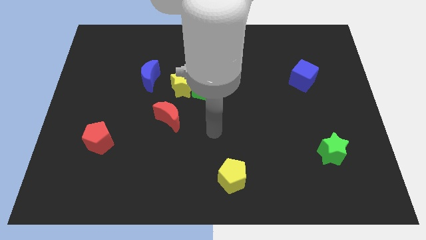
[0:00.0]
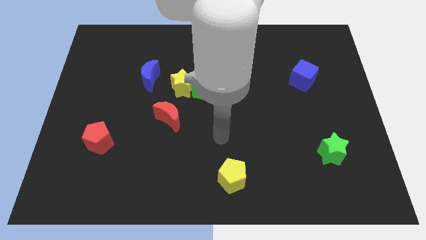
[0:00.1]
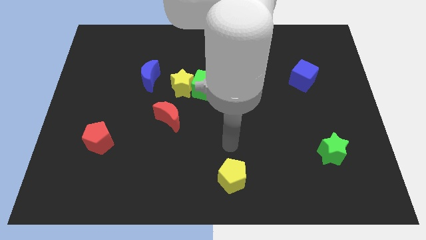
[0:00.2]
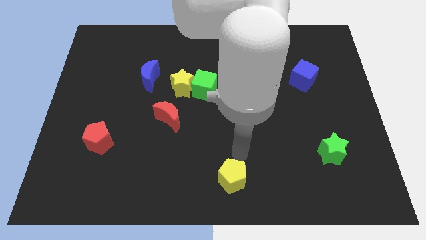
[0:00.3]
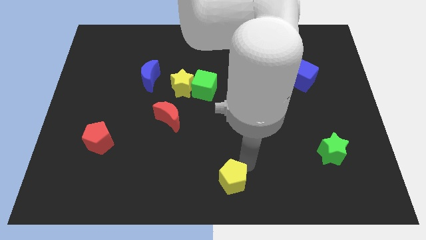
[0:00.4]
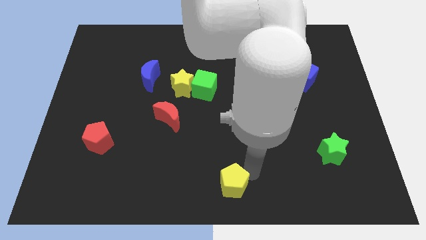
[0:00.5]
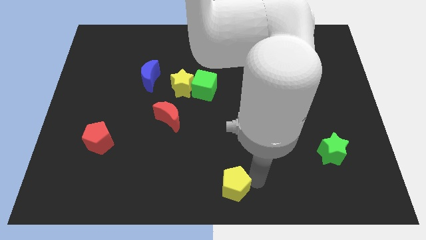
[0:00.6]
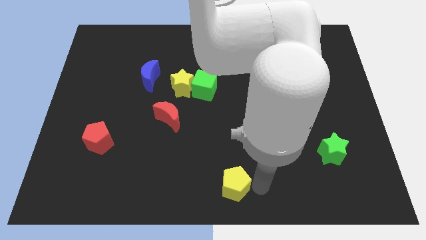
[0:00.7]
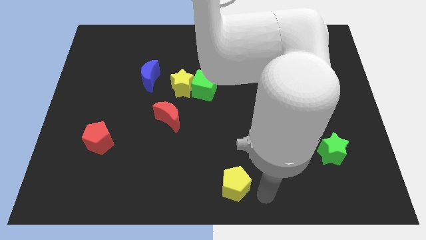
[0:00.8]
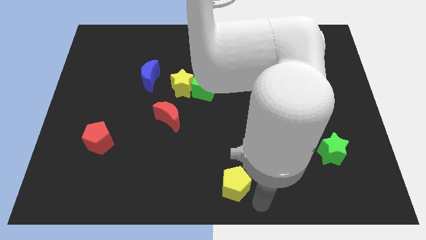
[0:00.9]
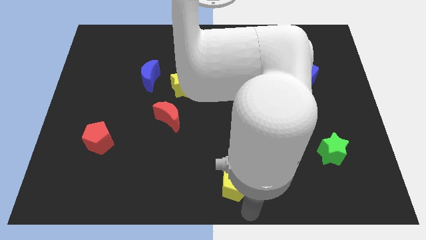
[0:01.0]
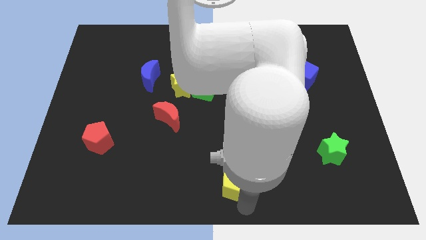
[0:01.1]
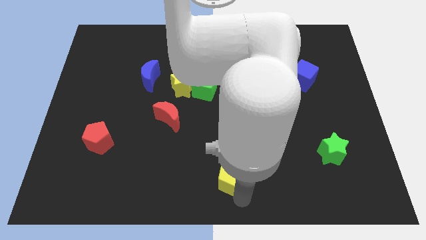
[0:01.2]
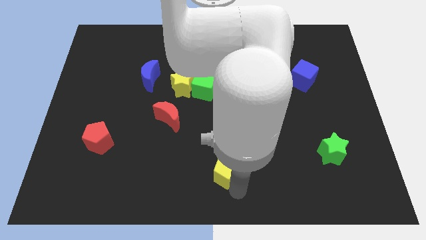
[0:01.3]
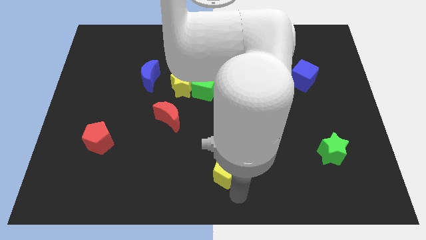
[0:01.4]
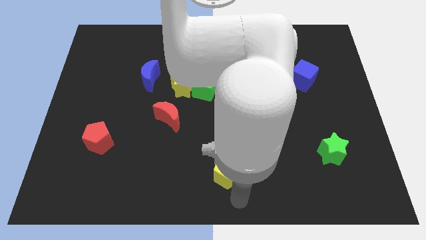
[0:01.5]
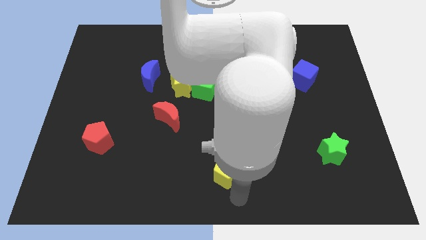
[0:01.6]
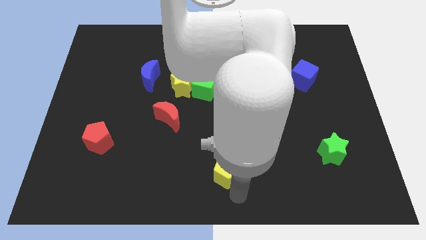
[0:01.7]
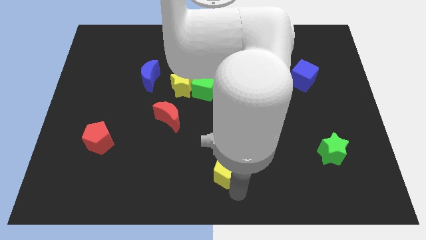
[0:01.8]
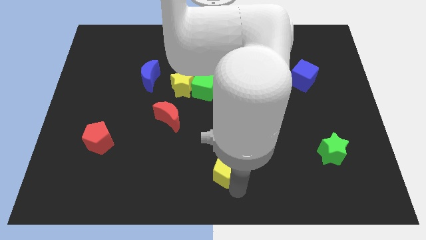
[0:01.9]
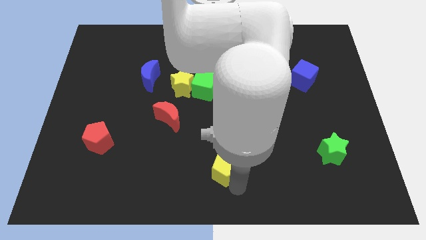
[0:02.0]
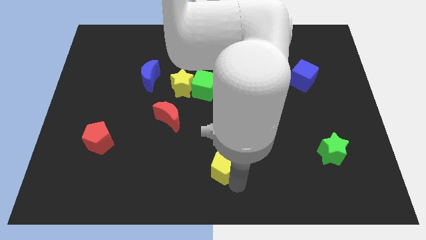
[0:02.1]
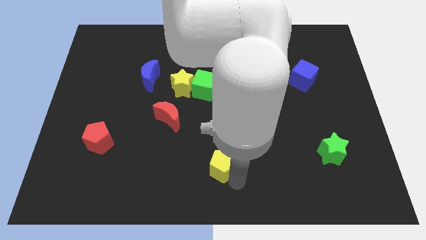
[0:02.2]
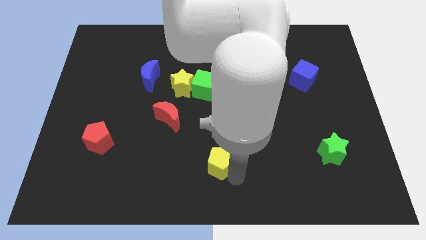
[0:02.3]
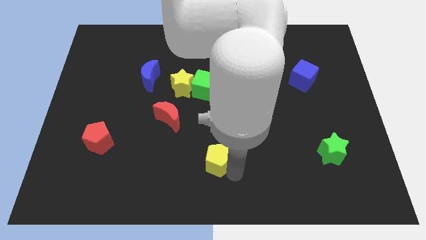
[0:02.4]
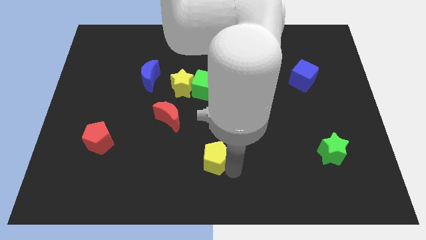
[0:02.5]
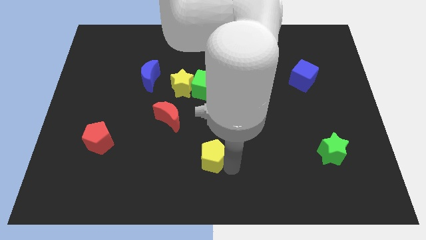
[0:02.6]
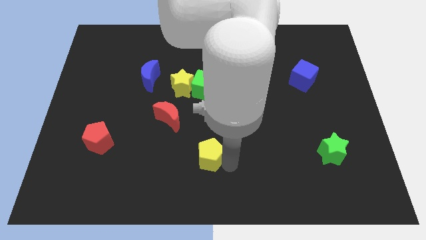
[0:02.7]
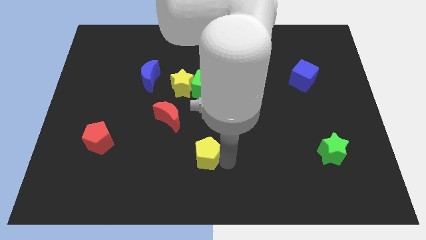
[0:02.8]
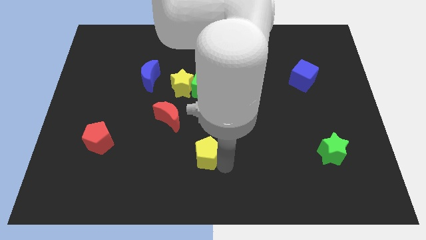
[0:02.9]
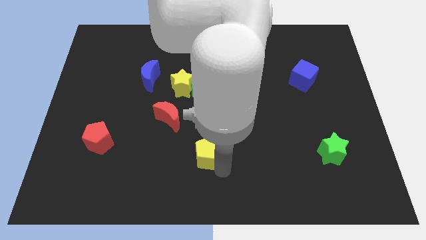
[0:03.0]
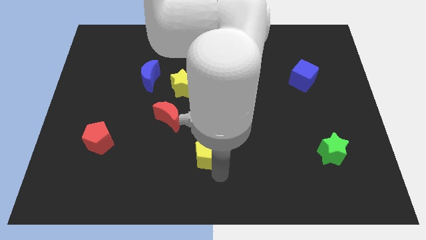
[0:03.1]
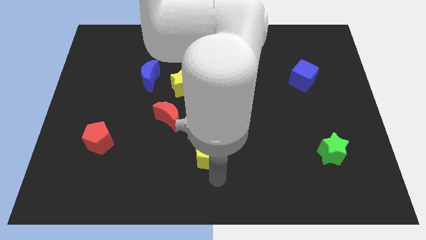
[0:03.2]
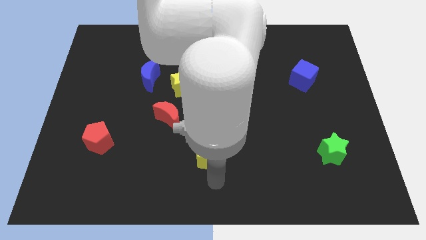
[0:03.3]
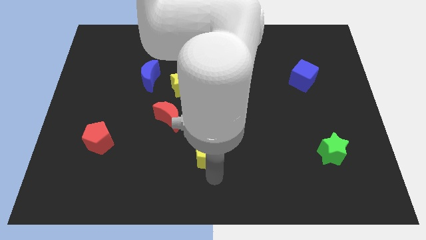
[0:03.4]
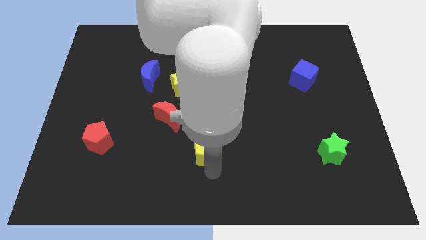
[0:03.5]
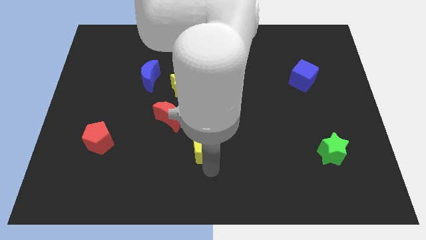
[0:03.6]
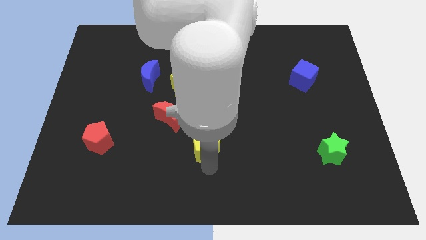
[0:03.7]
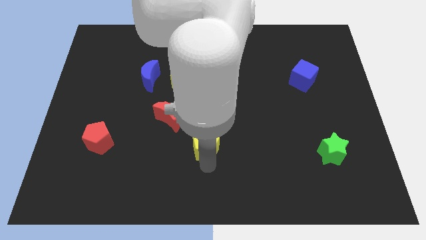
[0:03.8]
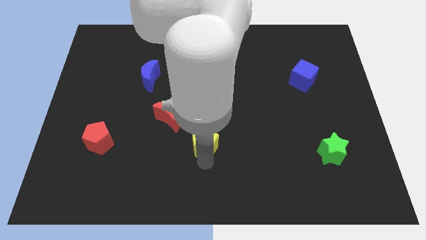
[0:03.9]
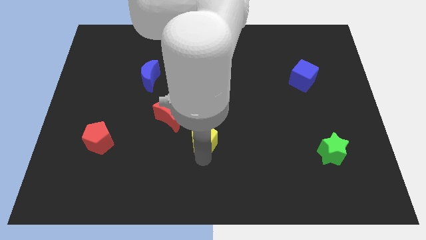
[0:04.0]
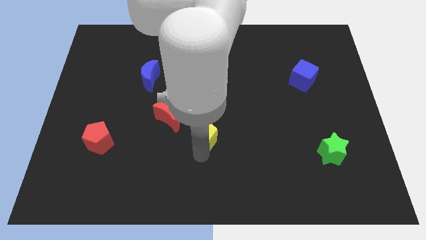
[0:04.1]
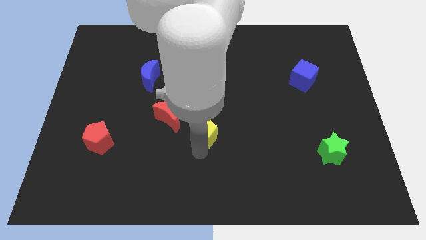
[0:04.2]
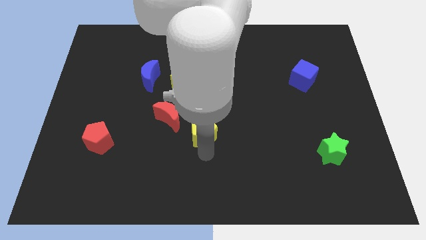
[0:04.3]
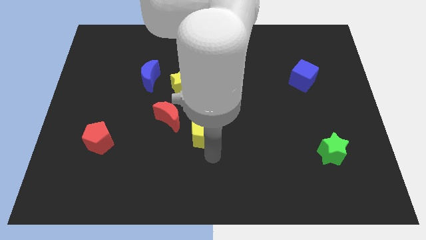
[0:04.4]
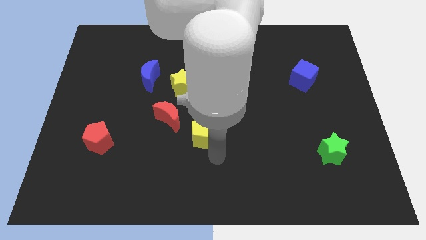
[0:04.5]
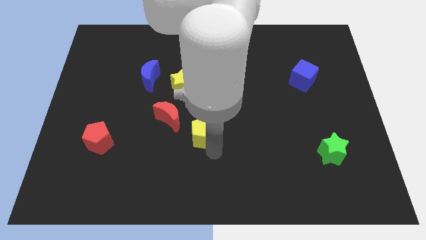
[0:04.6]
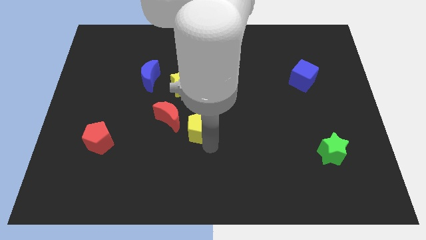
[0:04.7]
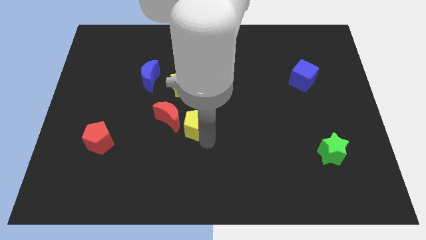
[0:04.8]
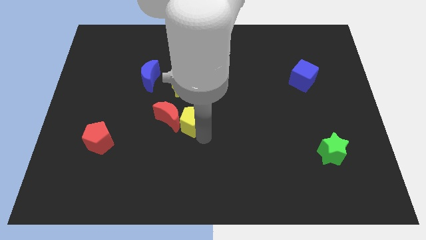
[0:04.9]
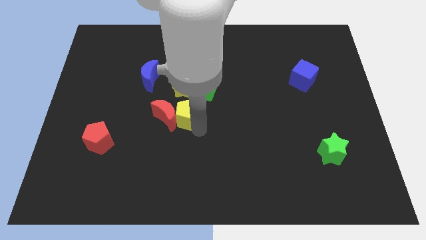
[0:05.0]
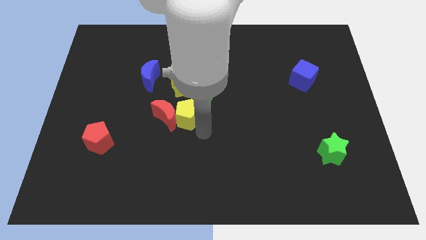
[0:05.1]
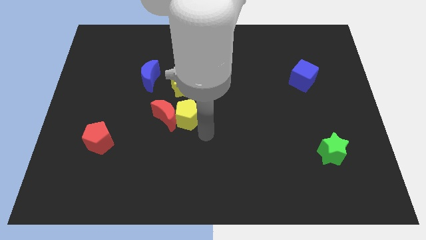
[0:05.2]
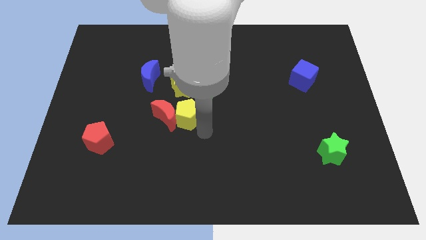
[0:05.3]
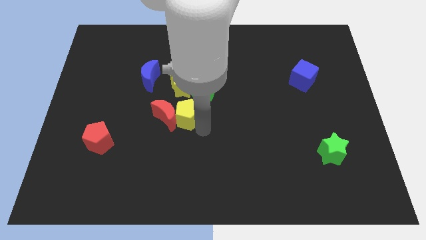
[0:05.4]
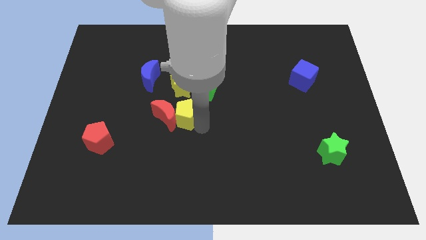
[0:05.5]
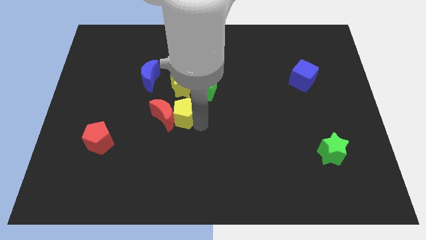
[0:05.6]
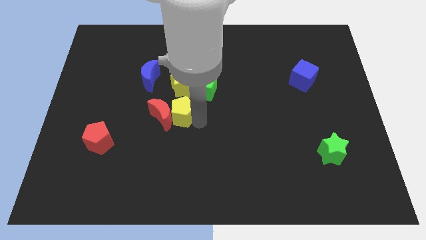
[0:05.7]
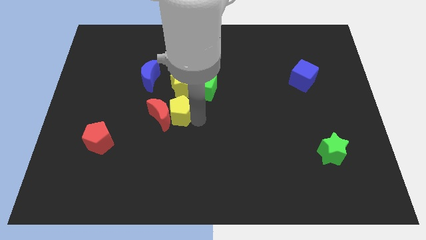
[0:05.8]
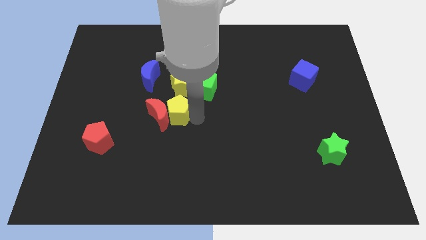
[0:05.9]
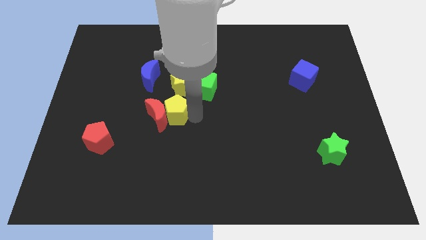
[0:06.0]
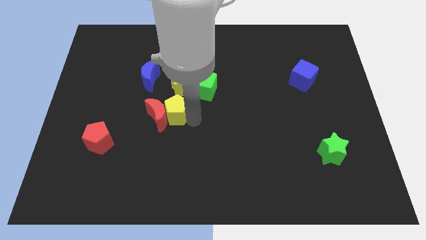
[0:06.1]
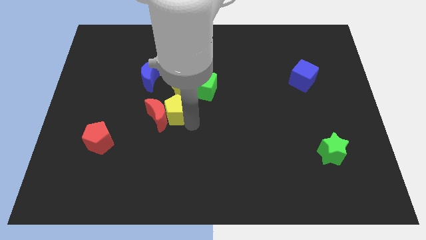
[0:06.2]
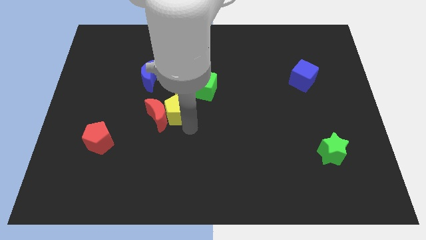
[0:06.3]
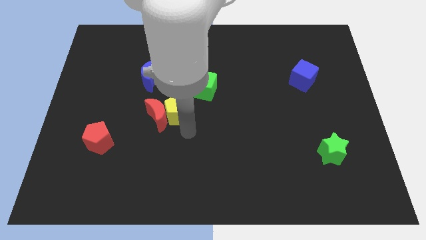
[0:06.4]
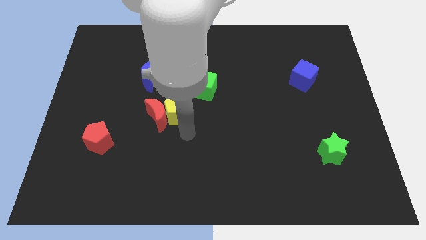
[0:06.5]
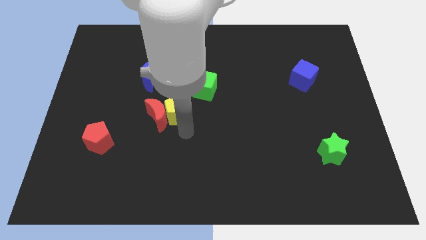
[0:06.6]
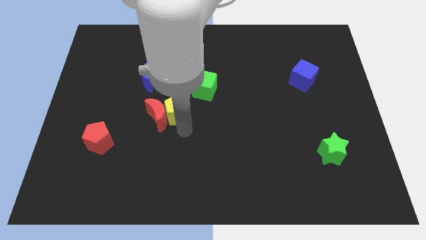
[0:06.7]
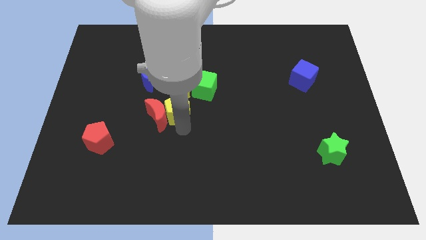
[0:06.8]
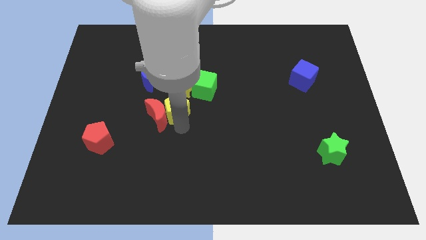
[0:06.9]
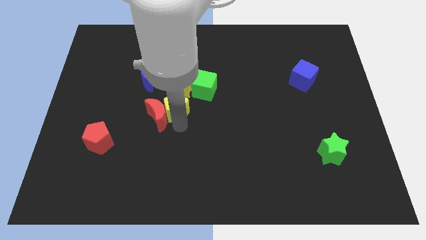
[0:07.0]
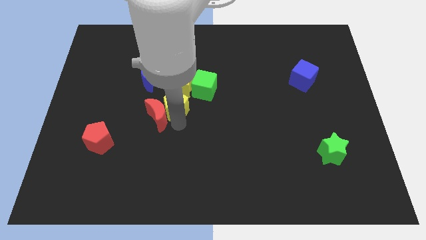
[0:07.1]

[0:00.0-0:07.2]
slide the yellow pentagon to the top side of the red moon

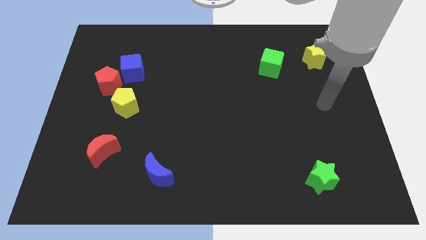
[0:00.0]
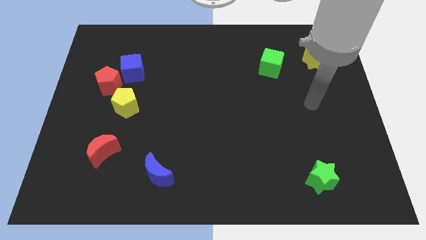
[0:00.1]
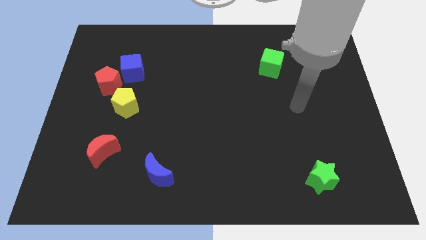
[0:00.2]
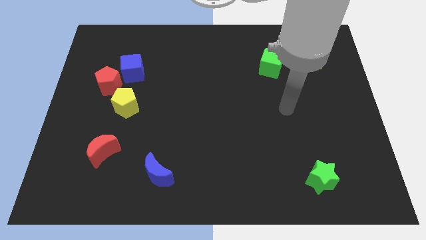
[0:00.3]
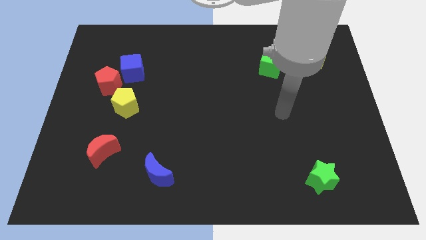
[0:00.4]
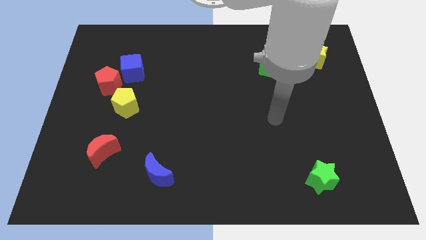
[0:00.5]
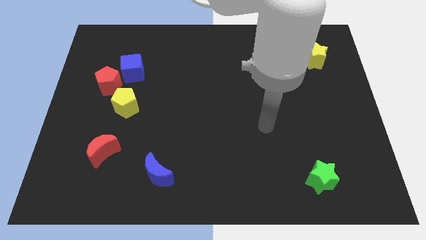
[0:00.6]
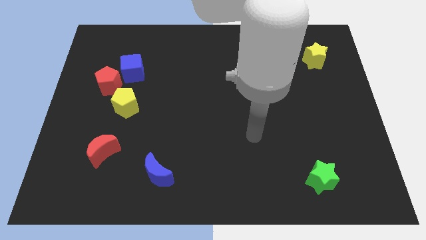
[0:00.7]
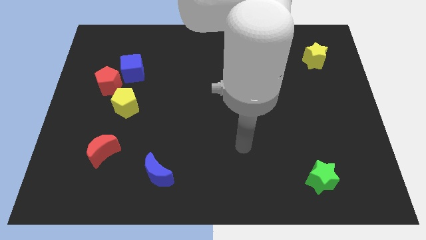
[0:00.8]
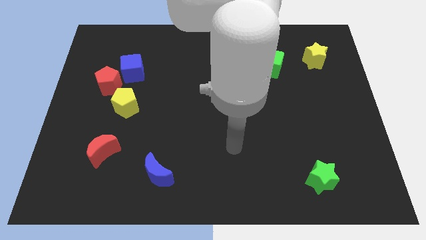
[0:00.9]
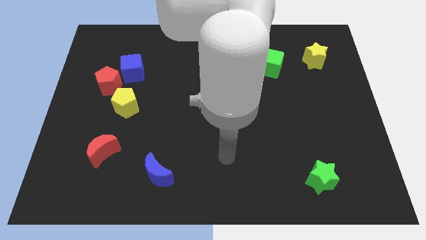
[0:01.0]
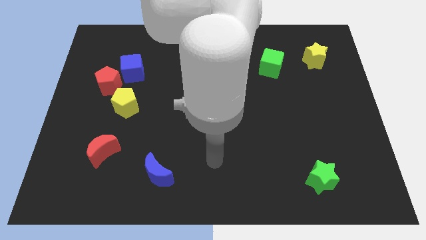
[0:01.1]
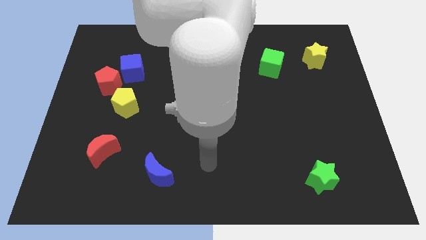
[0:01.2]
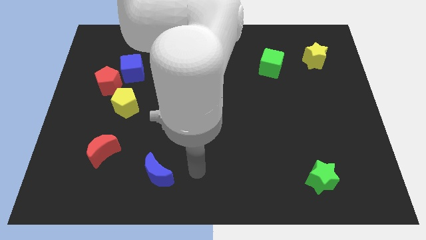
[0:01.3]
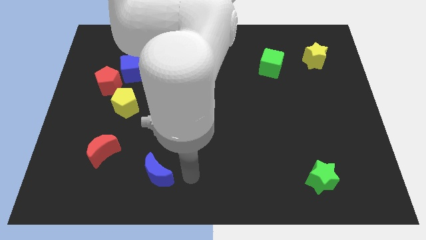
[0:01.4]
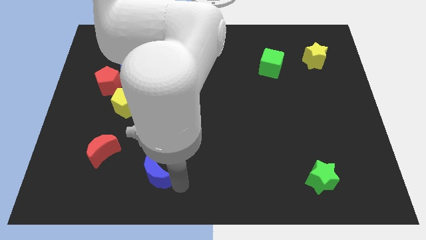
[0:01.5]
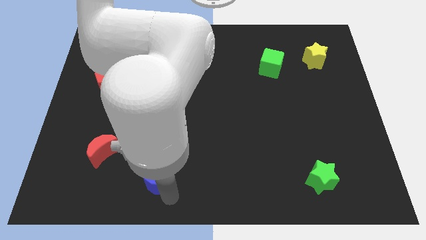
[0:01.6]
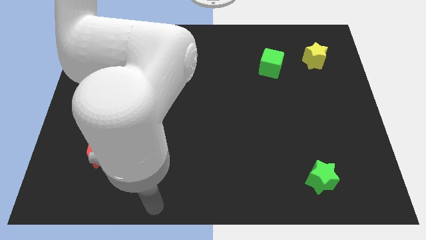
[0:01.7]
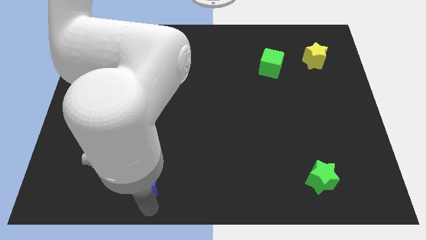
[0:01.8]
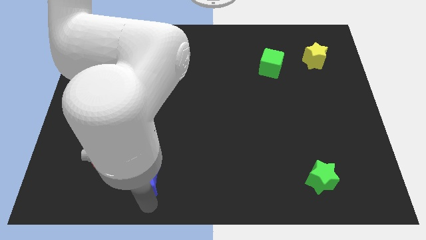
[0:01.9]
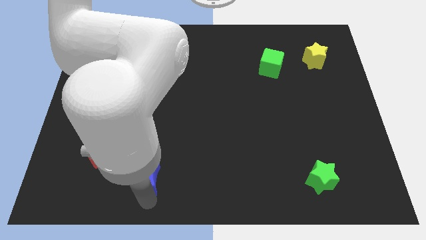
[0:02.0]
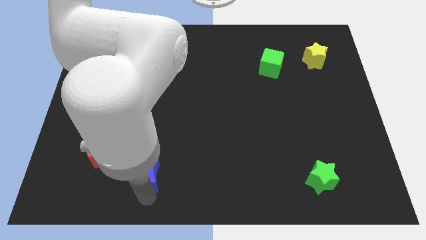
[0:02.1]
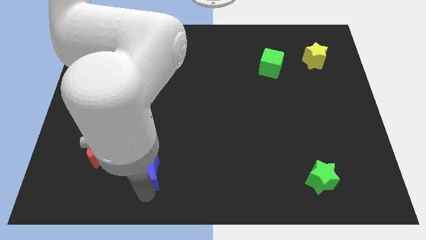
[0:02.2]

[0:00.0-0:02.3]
move the blue moon to the right side of the red moon
